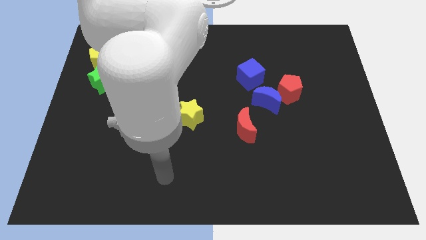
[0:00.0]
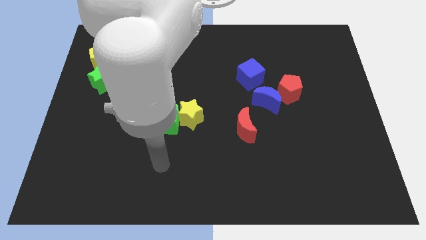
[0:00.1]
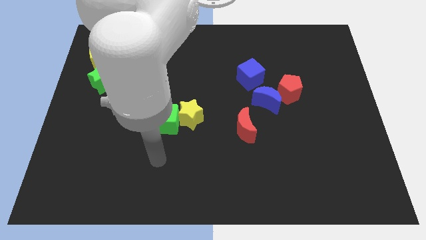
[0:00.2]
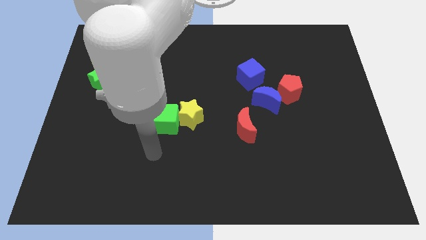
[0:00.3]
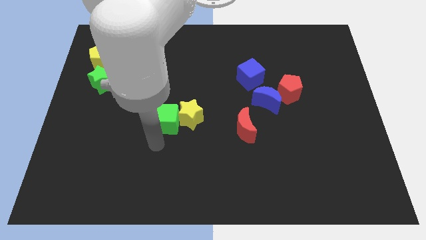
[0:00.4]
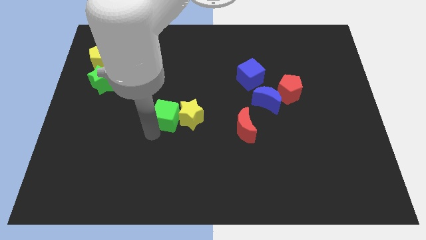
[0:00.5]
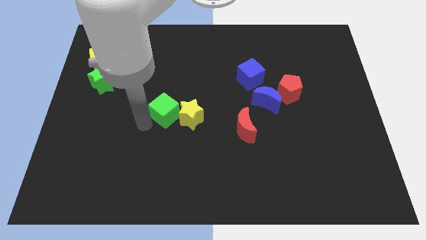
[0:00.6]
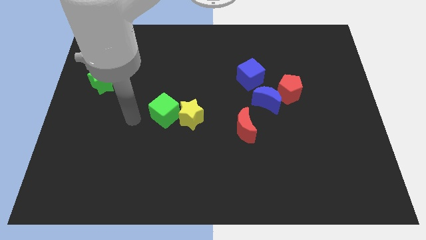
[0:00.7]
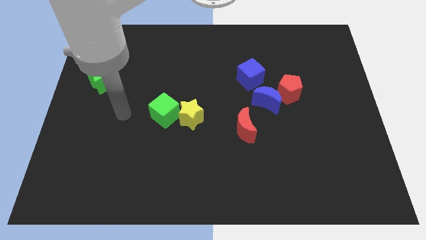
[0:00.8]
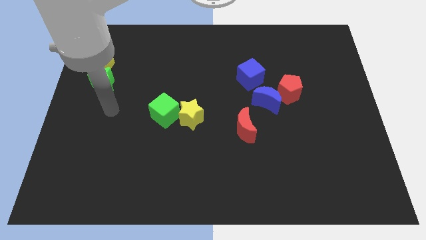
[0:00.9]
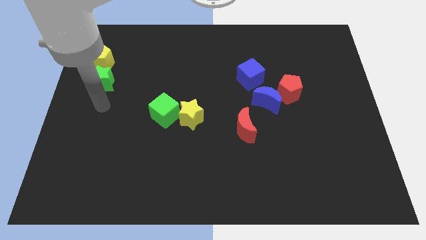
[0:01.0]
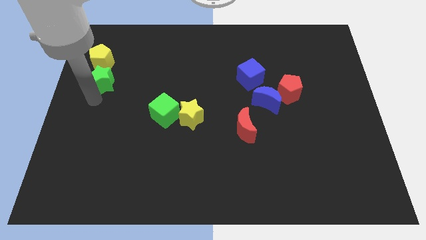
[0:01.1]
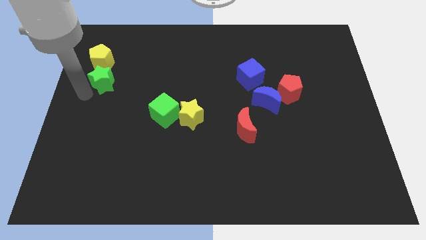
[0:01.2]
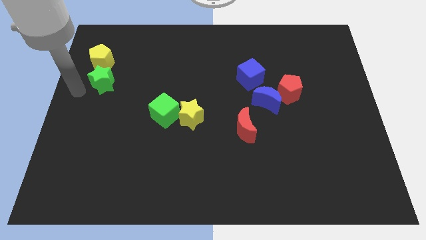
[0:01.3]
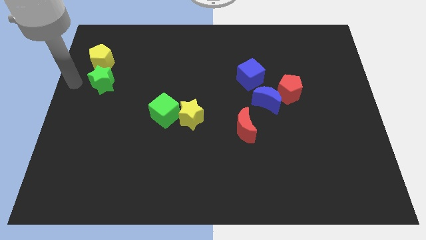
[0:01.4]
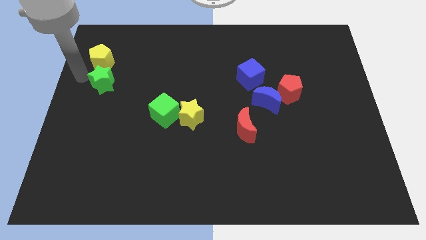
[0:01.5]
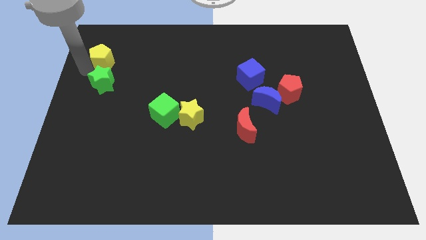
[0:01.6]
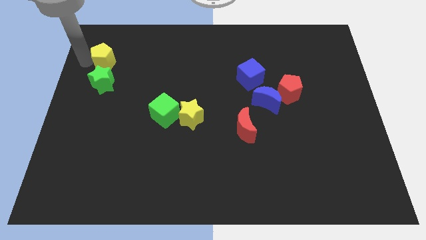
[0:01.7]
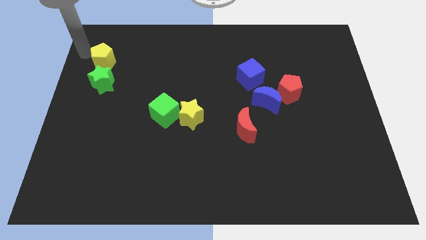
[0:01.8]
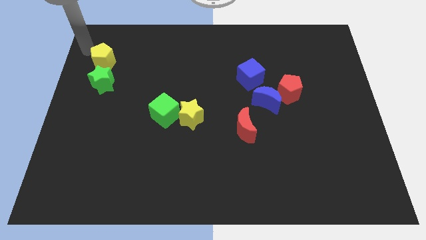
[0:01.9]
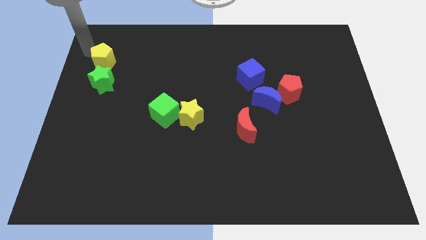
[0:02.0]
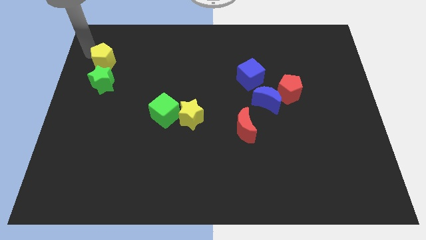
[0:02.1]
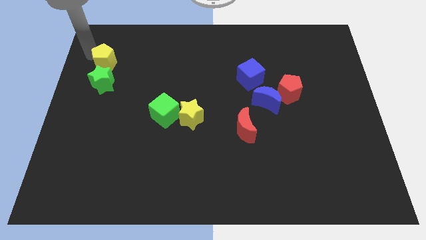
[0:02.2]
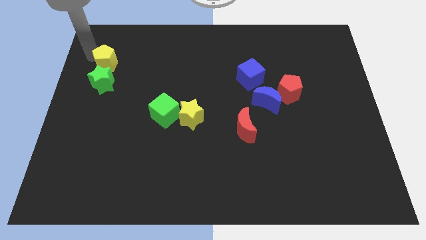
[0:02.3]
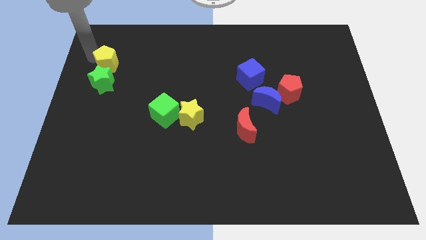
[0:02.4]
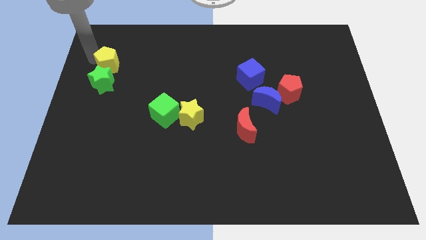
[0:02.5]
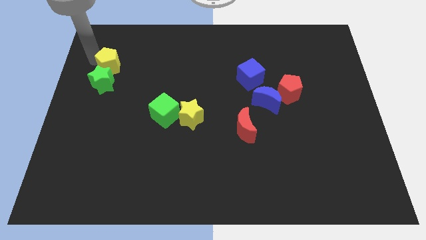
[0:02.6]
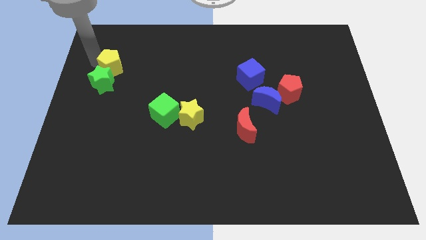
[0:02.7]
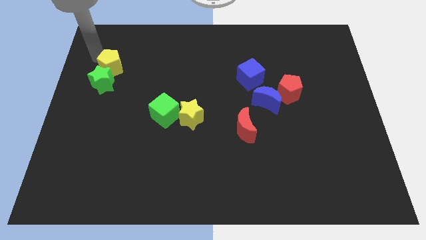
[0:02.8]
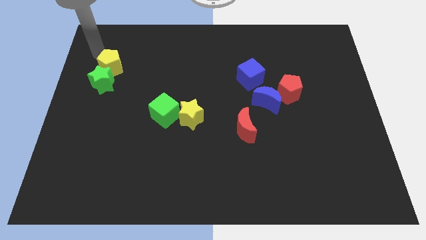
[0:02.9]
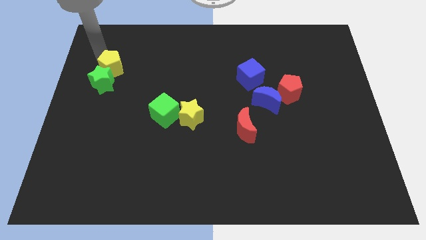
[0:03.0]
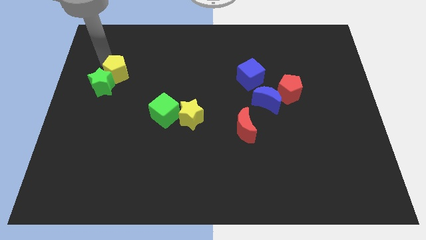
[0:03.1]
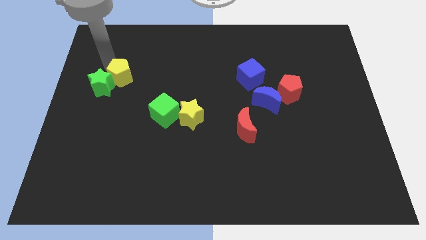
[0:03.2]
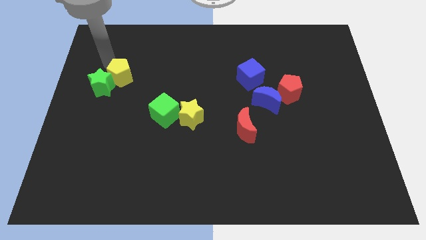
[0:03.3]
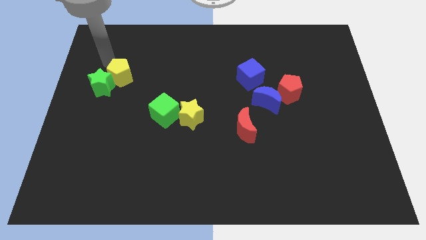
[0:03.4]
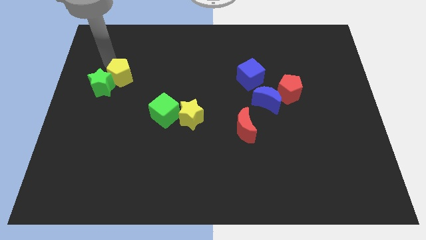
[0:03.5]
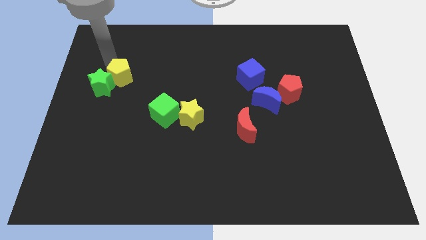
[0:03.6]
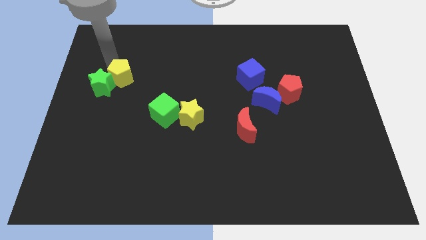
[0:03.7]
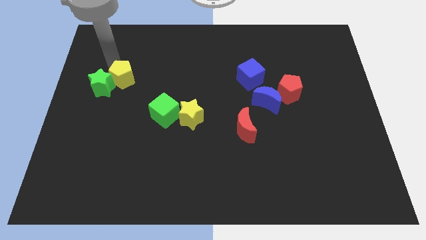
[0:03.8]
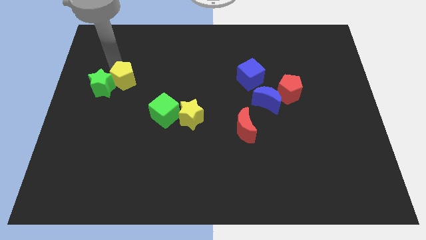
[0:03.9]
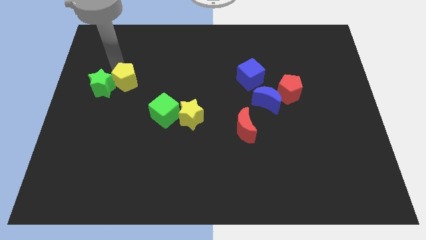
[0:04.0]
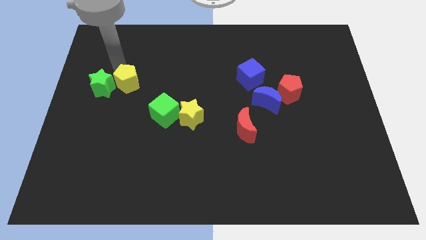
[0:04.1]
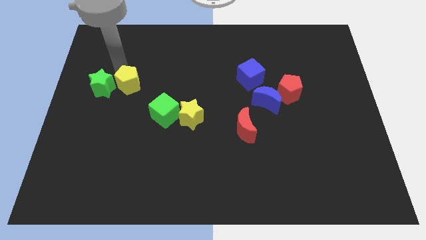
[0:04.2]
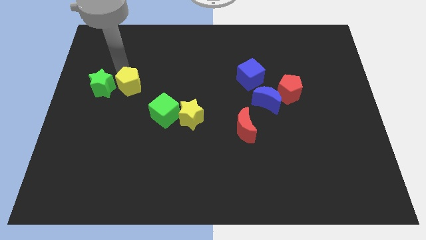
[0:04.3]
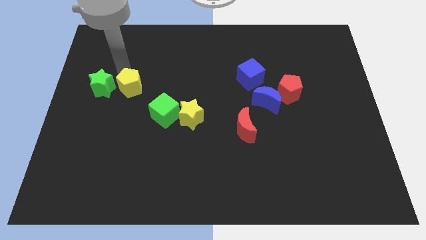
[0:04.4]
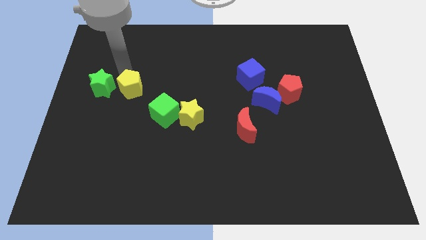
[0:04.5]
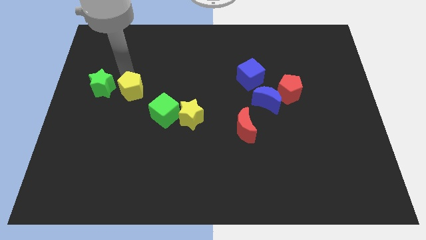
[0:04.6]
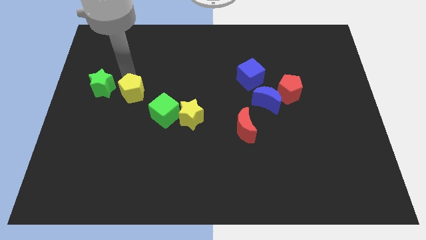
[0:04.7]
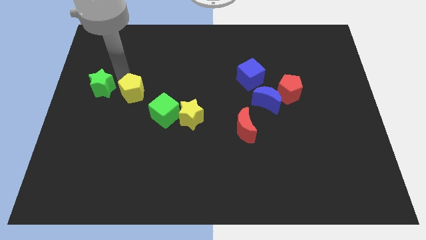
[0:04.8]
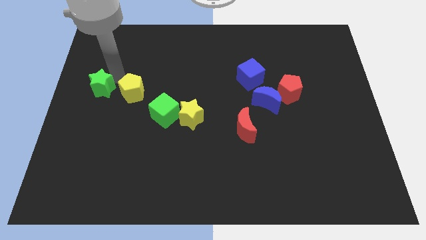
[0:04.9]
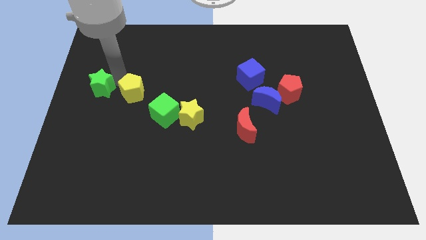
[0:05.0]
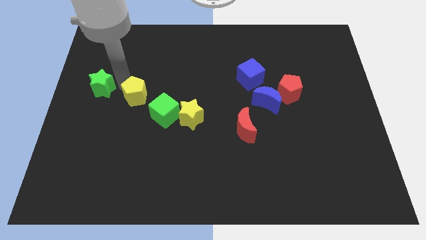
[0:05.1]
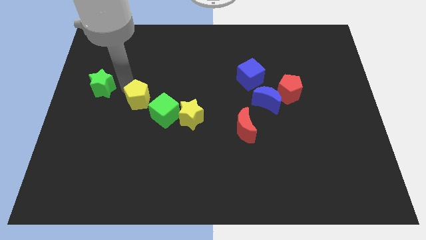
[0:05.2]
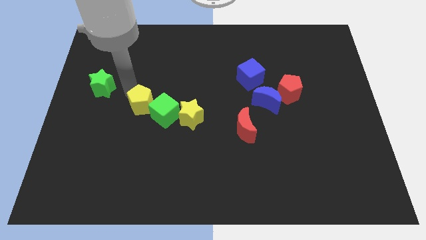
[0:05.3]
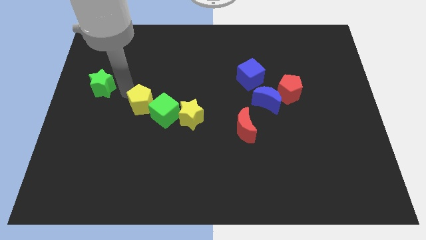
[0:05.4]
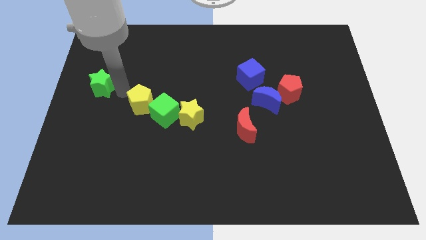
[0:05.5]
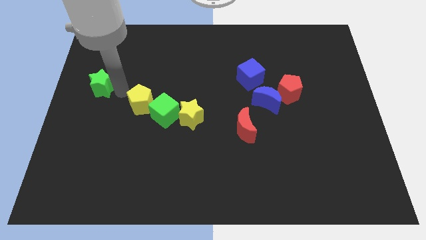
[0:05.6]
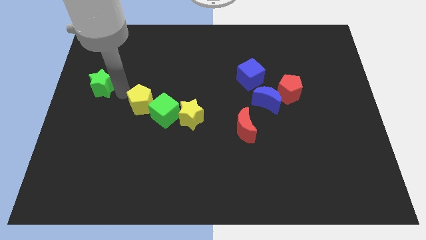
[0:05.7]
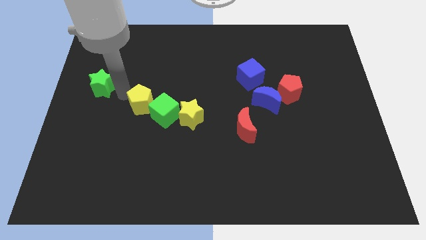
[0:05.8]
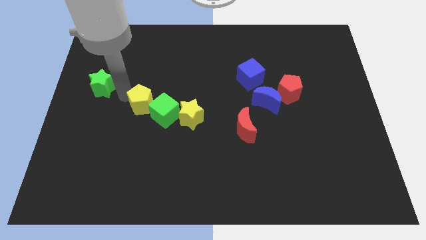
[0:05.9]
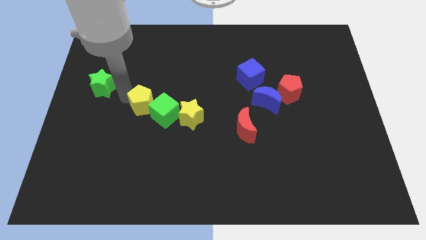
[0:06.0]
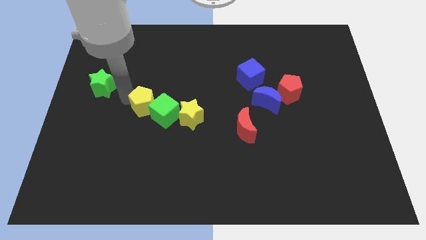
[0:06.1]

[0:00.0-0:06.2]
move the yellow pentagon next to the green cube

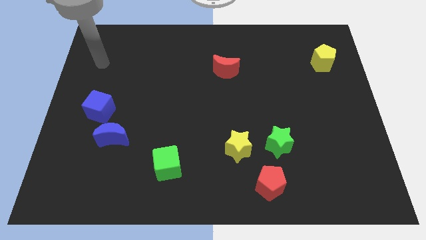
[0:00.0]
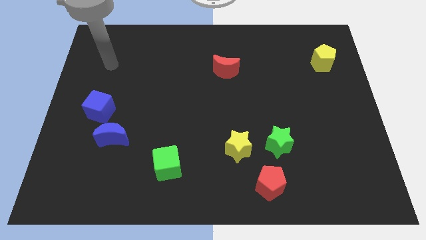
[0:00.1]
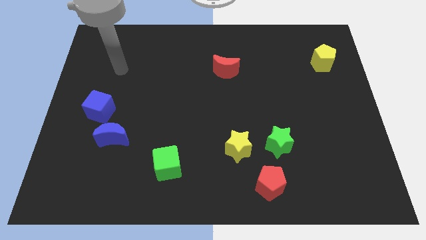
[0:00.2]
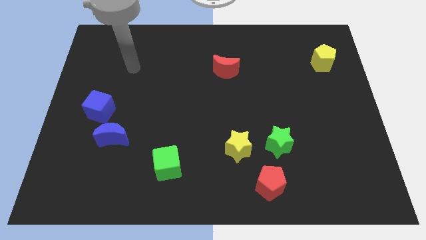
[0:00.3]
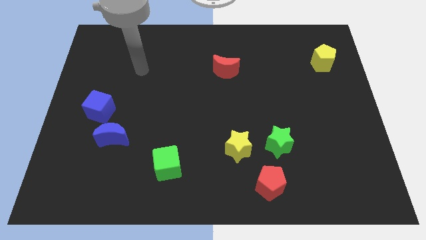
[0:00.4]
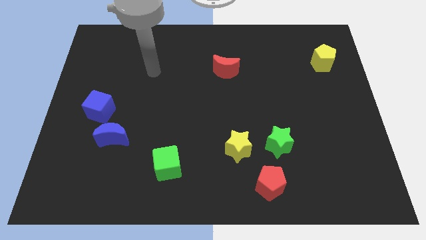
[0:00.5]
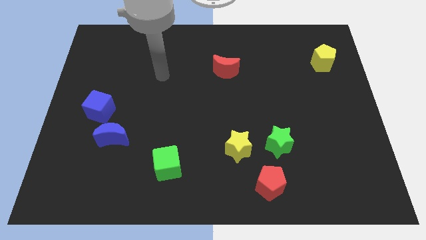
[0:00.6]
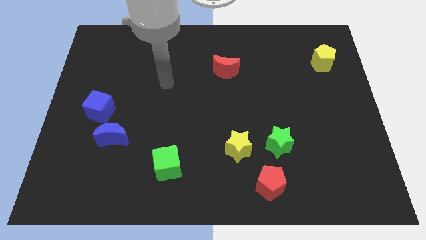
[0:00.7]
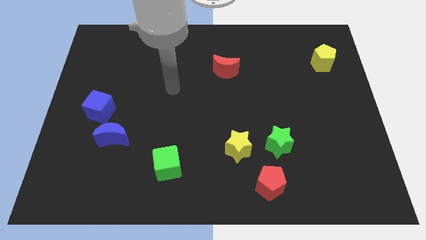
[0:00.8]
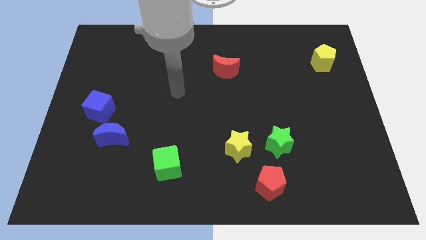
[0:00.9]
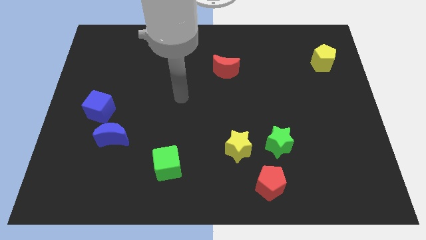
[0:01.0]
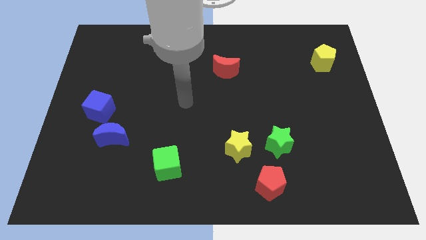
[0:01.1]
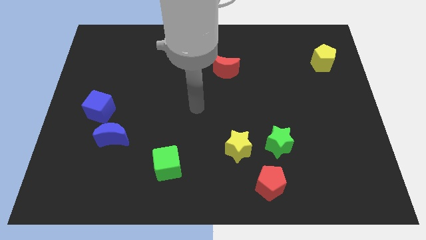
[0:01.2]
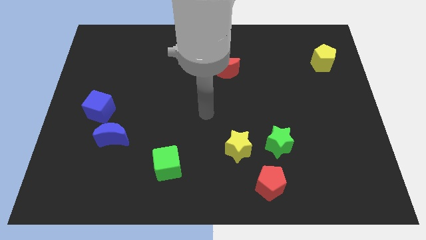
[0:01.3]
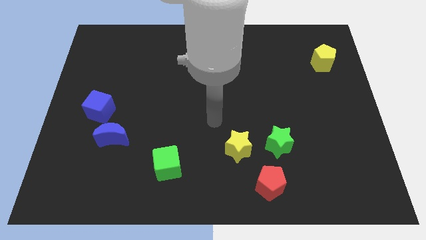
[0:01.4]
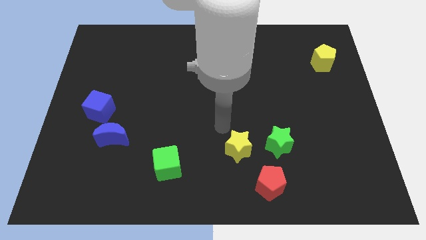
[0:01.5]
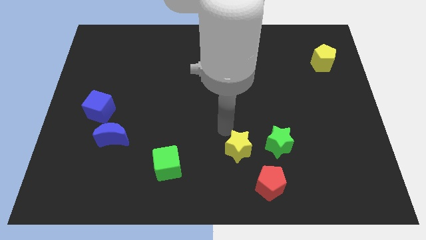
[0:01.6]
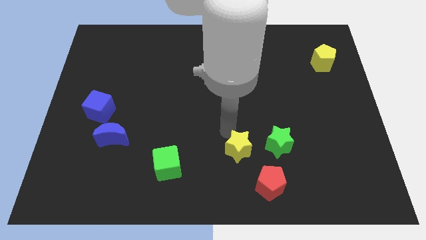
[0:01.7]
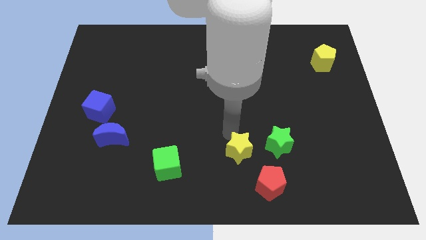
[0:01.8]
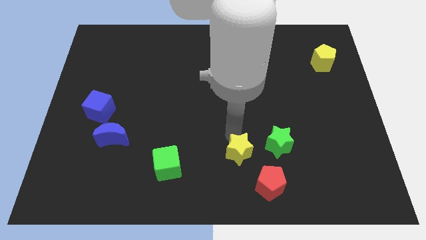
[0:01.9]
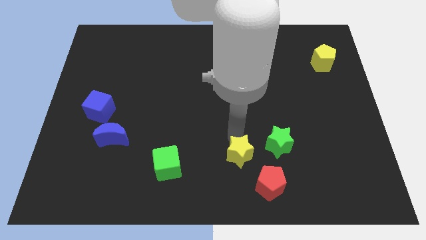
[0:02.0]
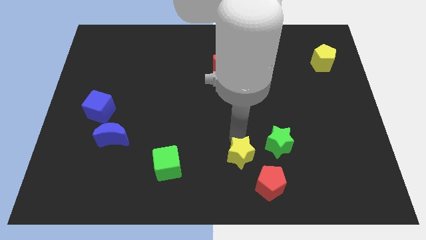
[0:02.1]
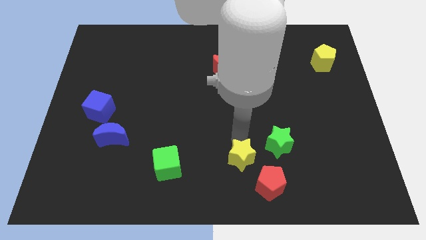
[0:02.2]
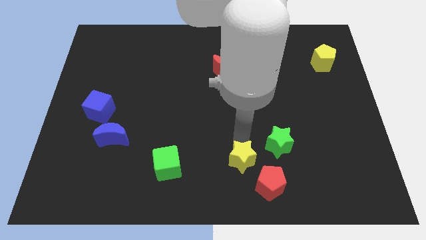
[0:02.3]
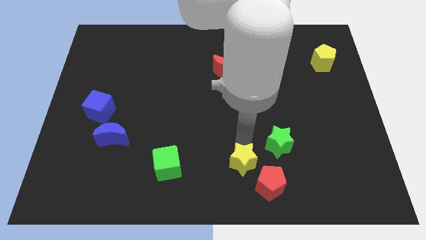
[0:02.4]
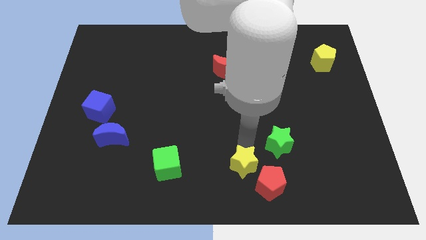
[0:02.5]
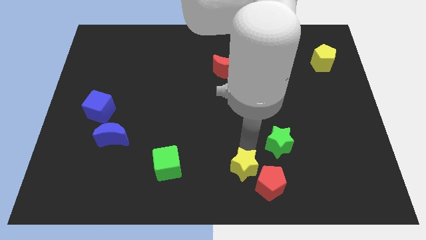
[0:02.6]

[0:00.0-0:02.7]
move the yellow star to the red pentagon
